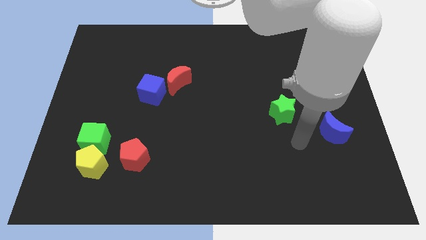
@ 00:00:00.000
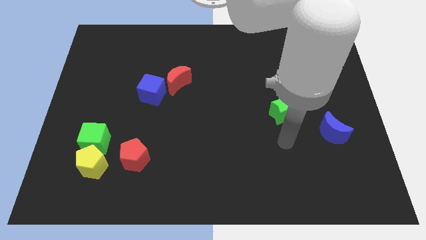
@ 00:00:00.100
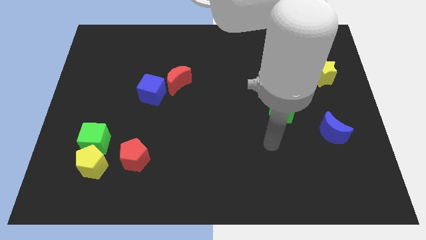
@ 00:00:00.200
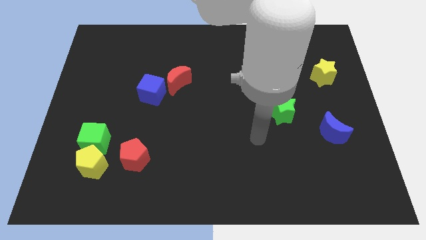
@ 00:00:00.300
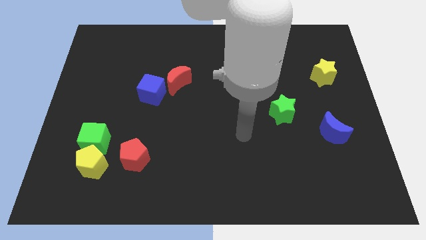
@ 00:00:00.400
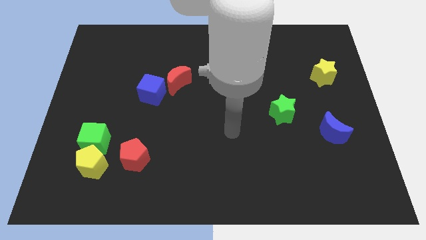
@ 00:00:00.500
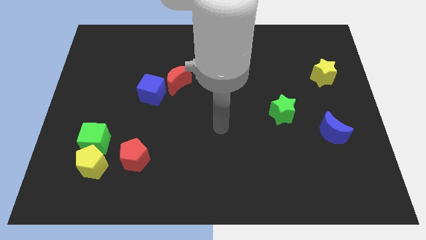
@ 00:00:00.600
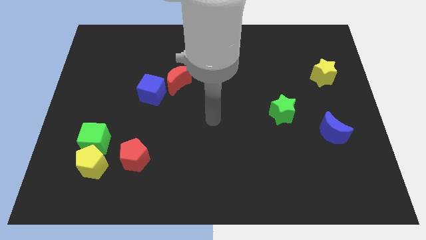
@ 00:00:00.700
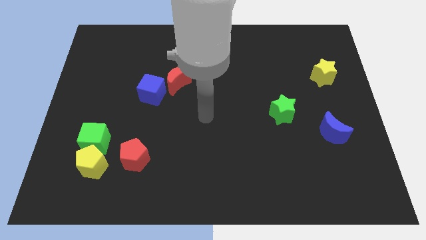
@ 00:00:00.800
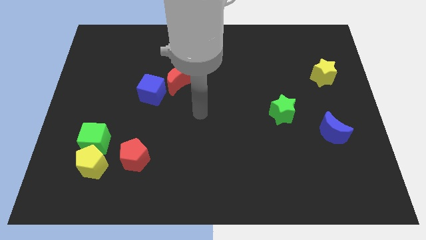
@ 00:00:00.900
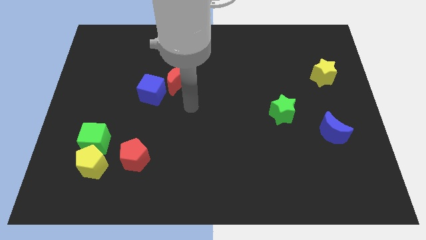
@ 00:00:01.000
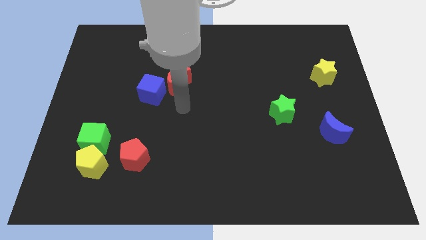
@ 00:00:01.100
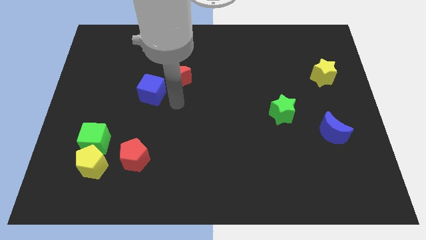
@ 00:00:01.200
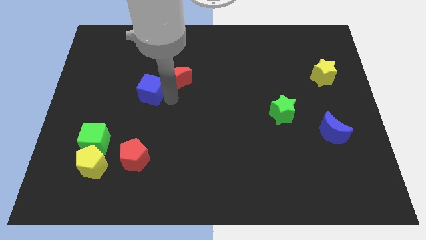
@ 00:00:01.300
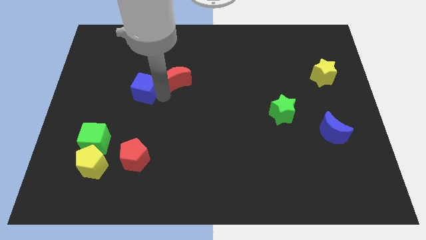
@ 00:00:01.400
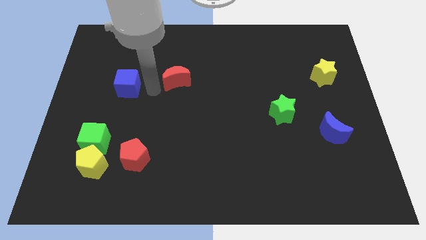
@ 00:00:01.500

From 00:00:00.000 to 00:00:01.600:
separate the red moon from the blue cube

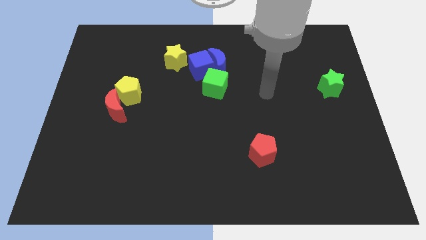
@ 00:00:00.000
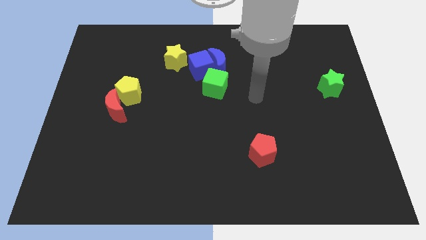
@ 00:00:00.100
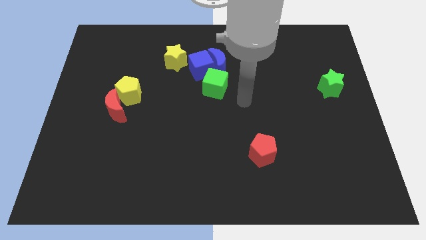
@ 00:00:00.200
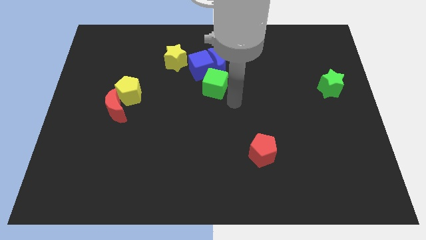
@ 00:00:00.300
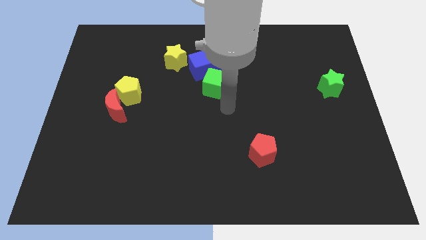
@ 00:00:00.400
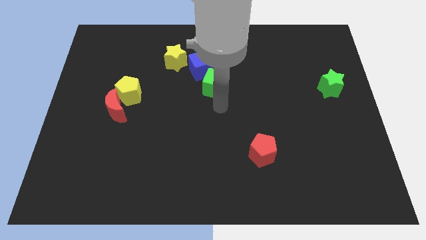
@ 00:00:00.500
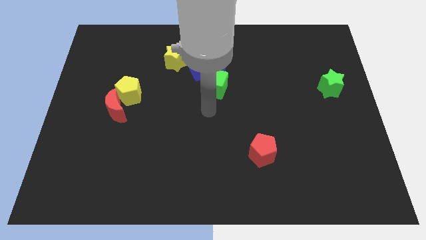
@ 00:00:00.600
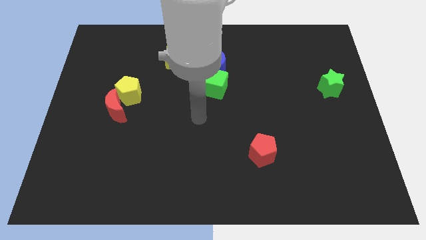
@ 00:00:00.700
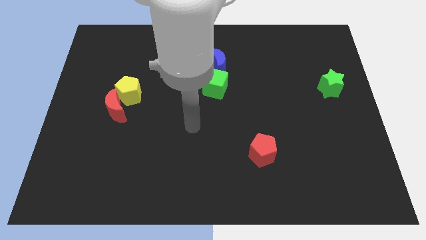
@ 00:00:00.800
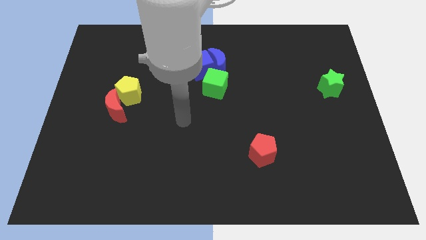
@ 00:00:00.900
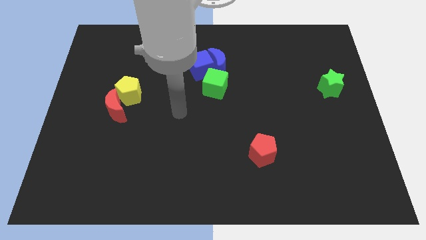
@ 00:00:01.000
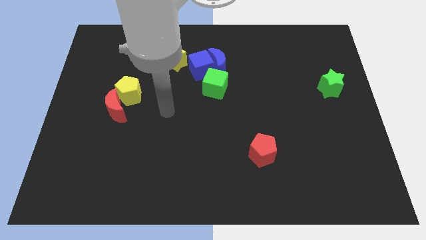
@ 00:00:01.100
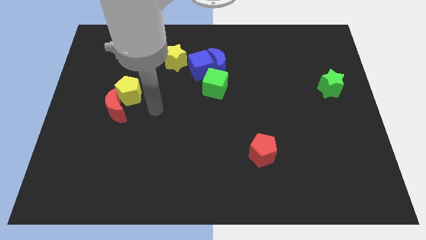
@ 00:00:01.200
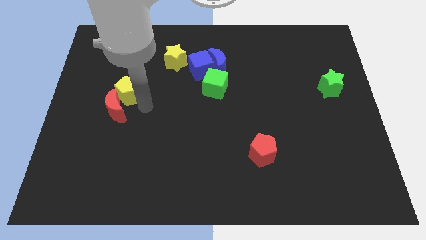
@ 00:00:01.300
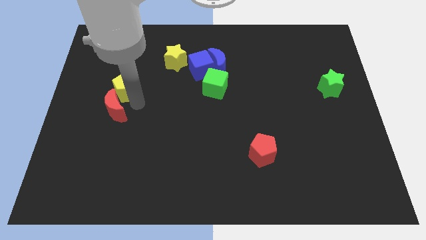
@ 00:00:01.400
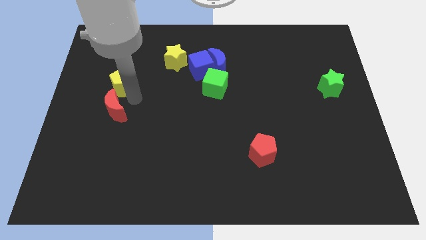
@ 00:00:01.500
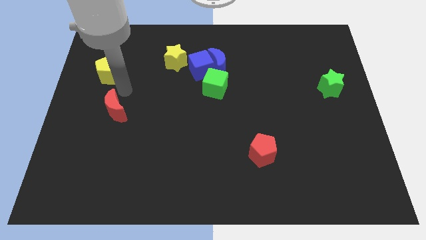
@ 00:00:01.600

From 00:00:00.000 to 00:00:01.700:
separate the red moon from the yellow pentagon

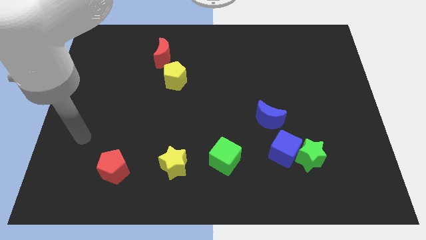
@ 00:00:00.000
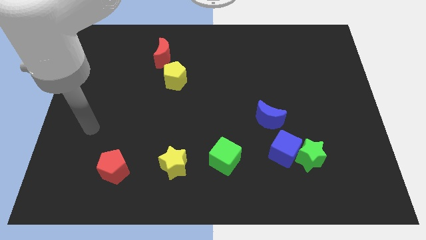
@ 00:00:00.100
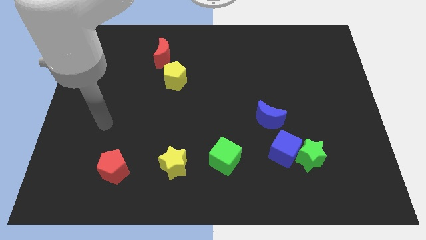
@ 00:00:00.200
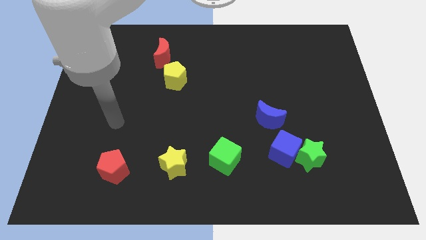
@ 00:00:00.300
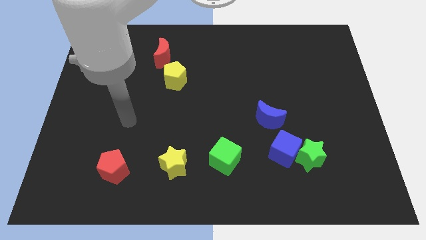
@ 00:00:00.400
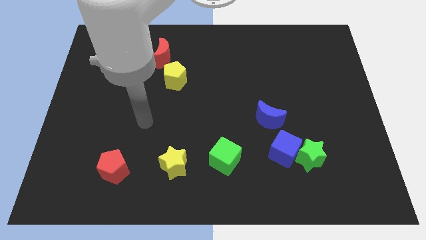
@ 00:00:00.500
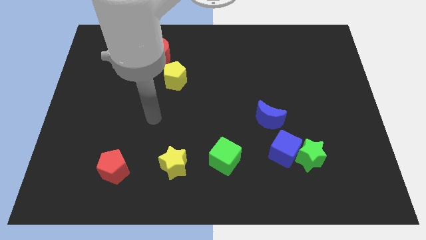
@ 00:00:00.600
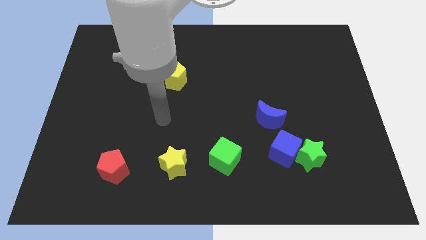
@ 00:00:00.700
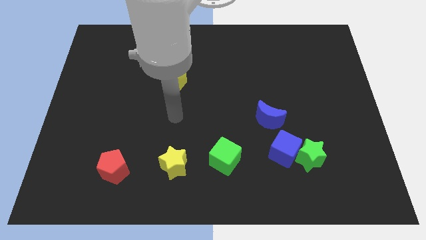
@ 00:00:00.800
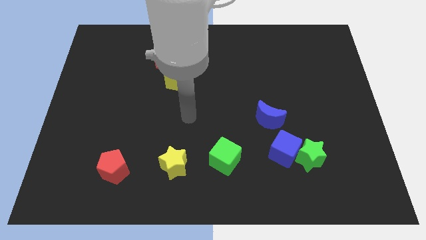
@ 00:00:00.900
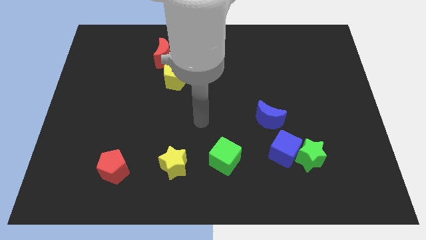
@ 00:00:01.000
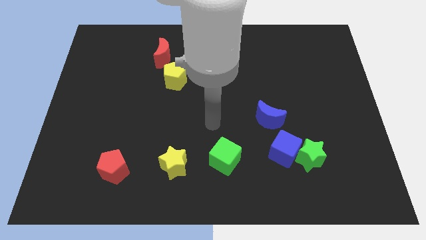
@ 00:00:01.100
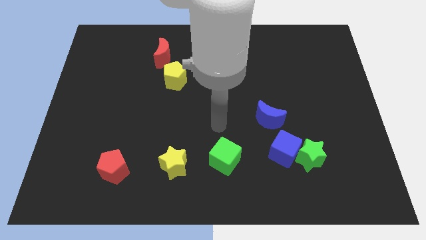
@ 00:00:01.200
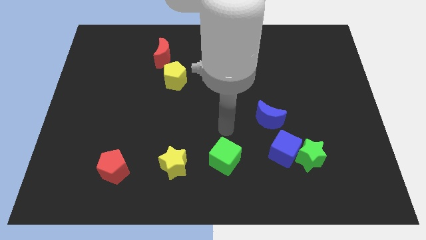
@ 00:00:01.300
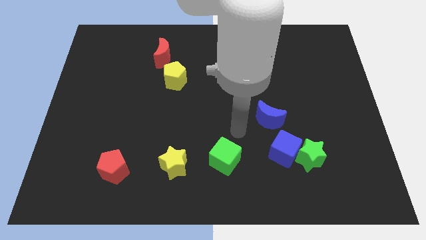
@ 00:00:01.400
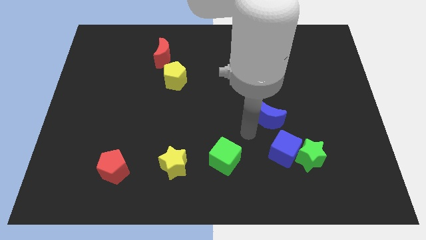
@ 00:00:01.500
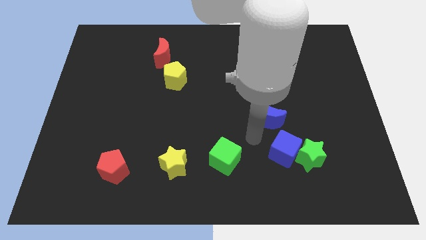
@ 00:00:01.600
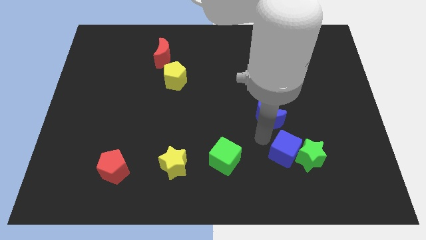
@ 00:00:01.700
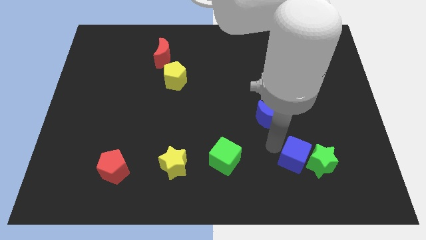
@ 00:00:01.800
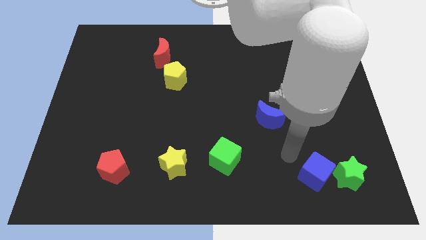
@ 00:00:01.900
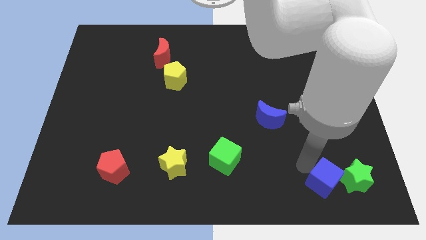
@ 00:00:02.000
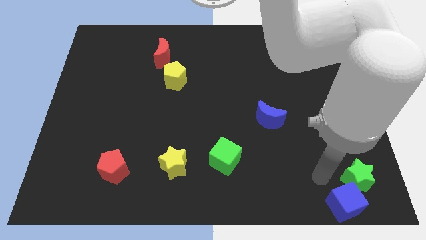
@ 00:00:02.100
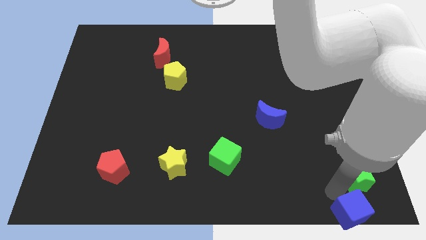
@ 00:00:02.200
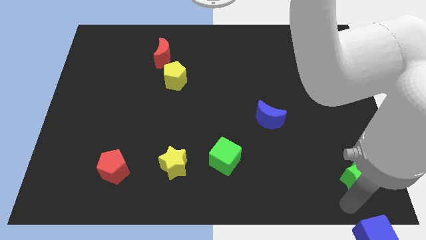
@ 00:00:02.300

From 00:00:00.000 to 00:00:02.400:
pull the green star apart from the blue cube

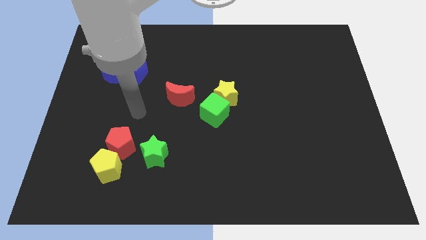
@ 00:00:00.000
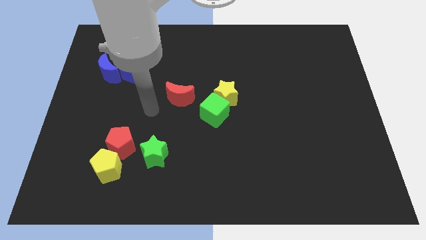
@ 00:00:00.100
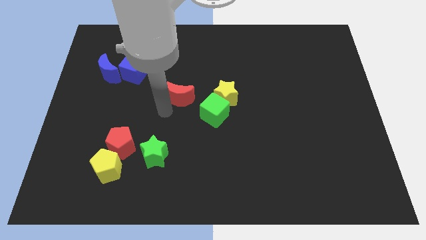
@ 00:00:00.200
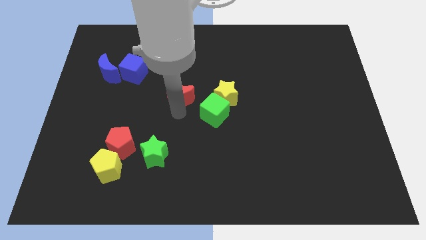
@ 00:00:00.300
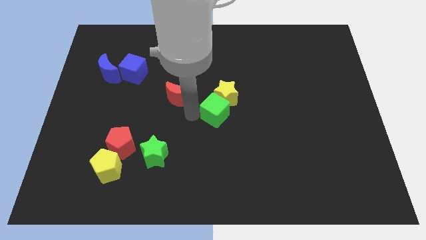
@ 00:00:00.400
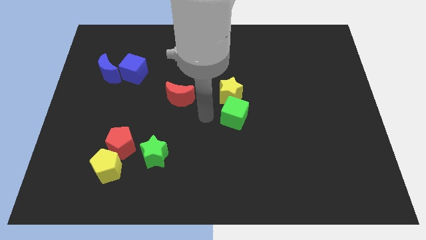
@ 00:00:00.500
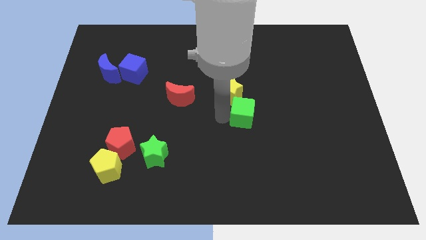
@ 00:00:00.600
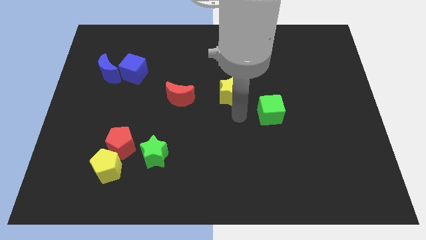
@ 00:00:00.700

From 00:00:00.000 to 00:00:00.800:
pull the yellow star apart from the green cube

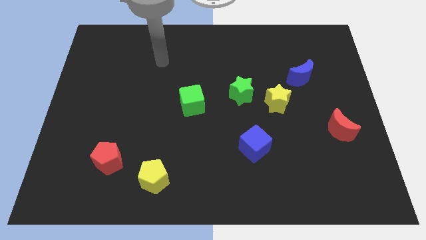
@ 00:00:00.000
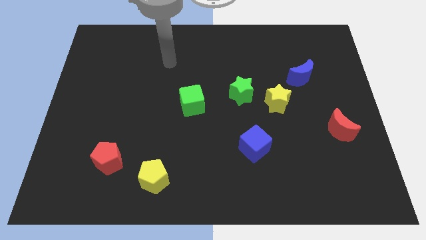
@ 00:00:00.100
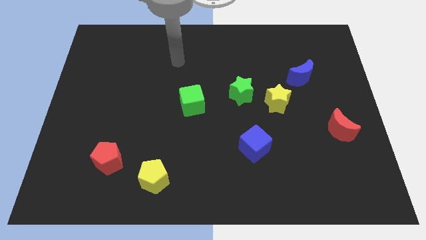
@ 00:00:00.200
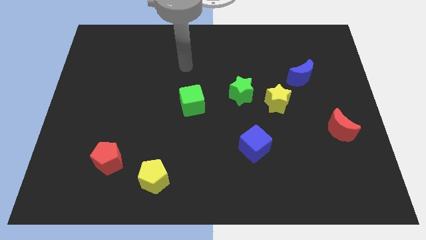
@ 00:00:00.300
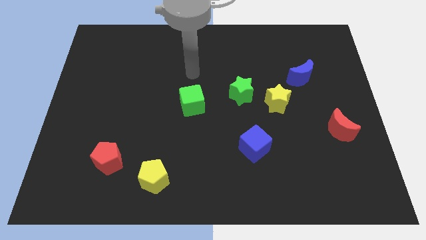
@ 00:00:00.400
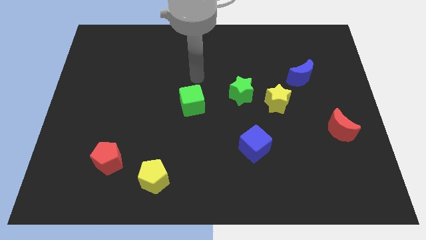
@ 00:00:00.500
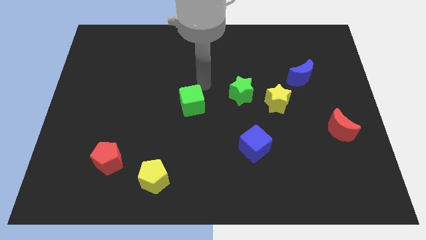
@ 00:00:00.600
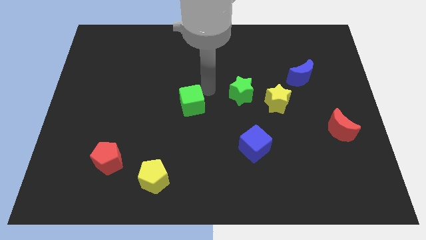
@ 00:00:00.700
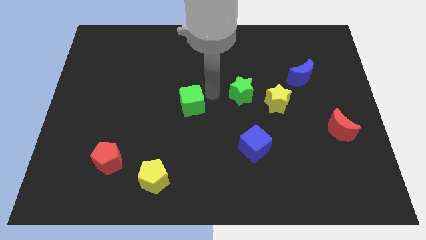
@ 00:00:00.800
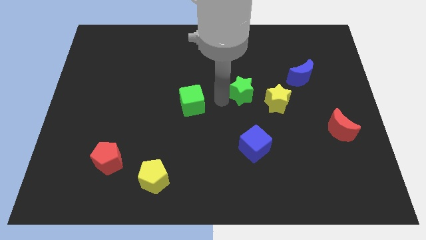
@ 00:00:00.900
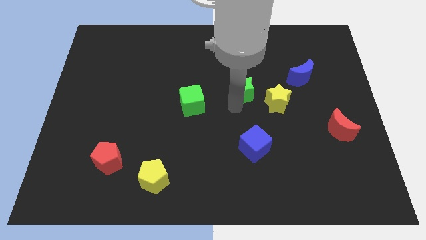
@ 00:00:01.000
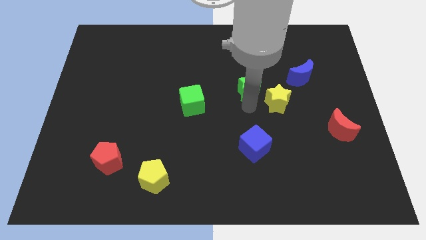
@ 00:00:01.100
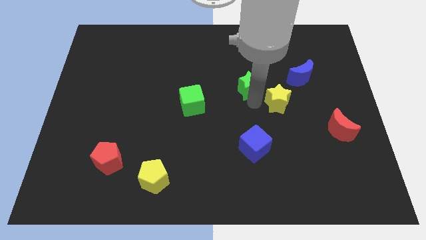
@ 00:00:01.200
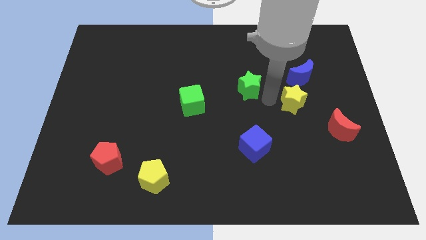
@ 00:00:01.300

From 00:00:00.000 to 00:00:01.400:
move the green star away from the yellow star

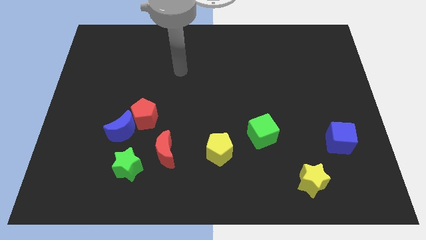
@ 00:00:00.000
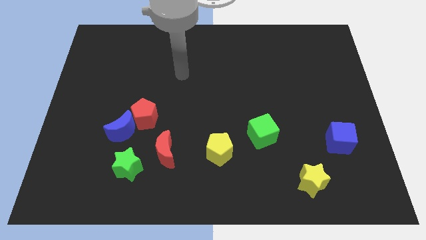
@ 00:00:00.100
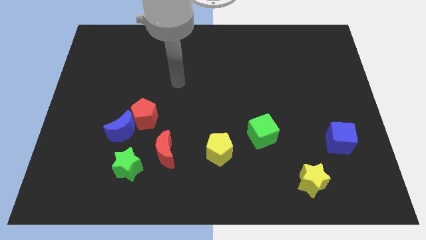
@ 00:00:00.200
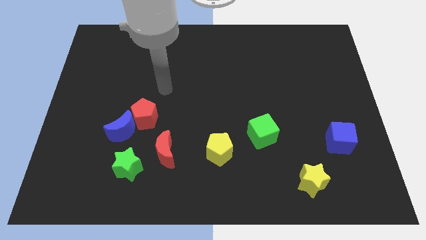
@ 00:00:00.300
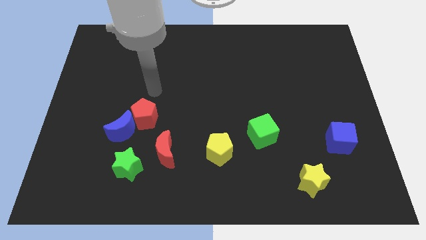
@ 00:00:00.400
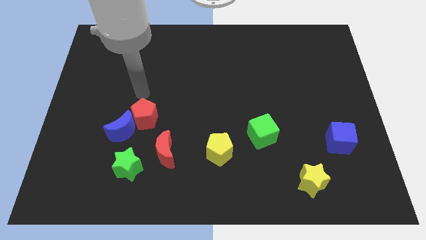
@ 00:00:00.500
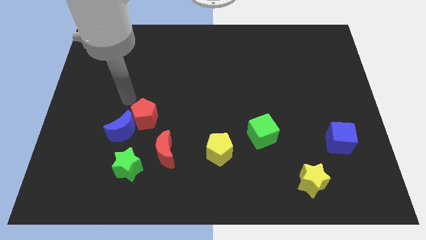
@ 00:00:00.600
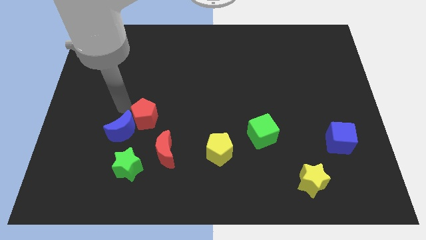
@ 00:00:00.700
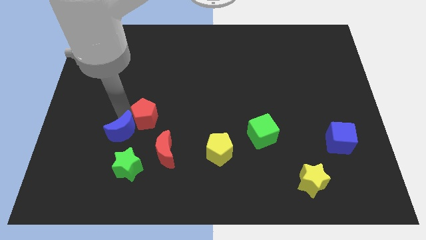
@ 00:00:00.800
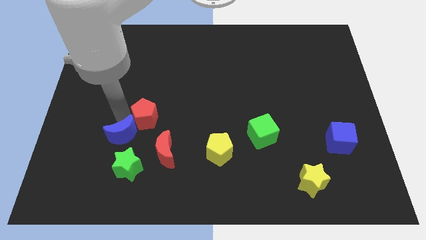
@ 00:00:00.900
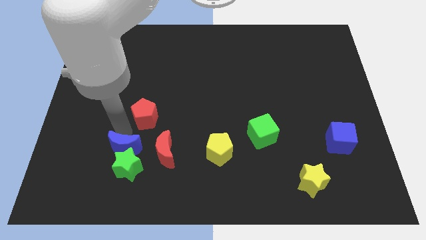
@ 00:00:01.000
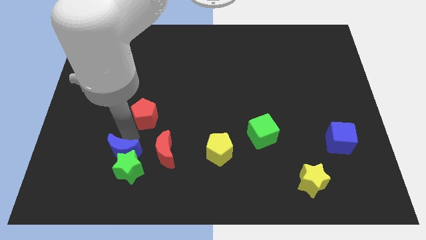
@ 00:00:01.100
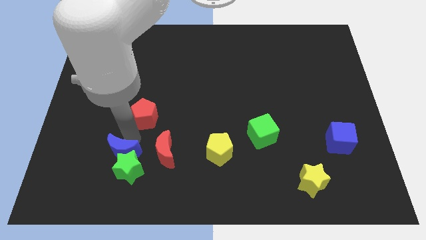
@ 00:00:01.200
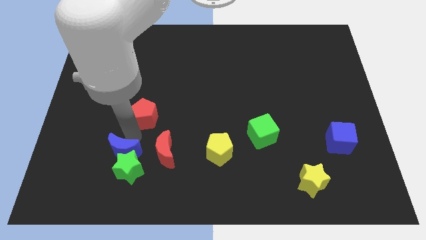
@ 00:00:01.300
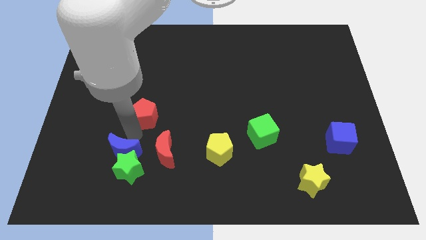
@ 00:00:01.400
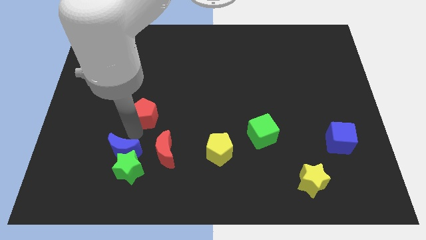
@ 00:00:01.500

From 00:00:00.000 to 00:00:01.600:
separate the red pentagon from the blue moon
